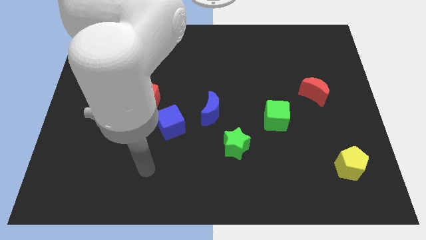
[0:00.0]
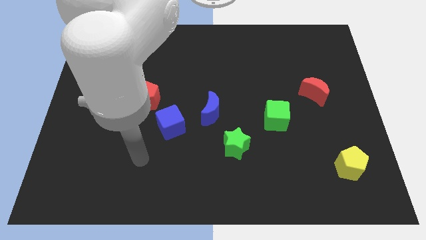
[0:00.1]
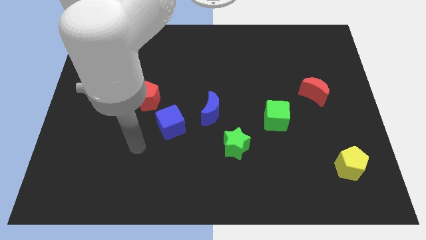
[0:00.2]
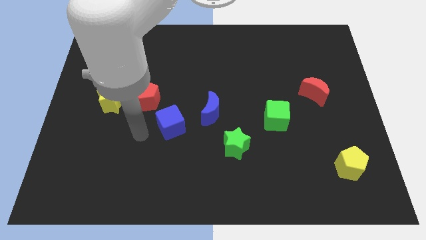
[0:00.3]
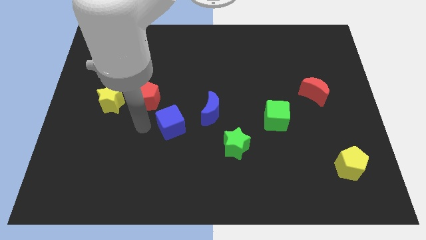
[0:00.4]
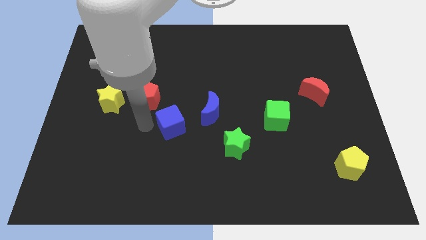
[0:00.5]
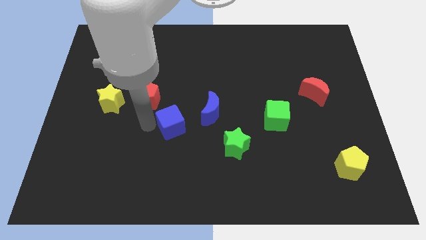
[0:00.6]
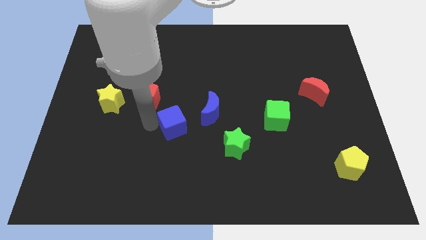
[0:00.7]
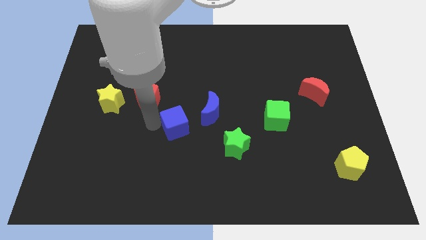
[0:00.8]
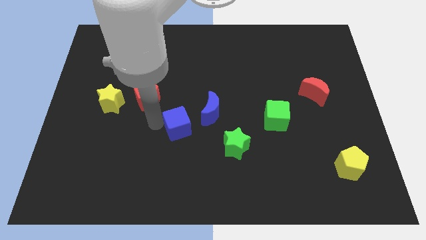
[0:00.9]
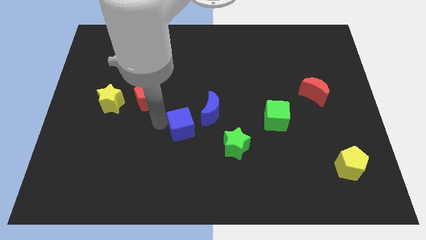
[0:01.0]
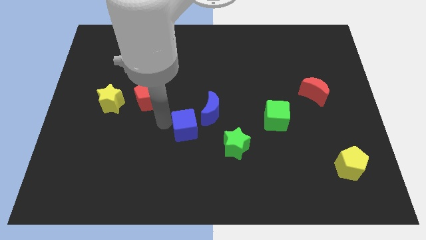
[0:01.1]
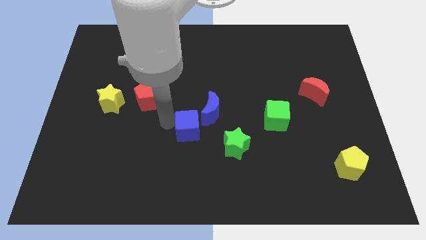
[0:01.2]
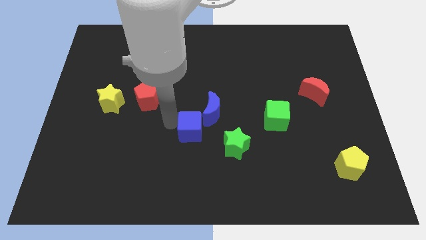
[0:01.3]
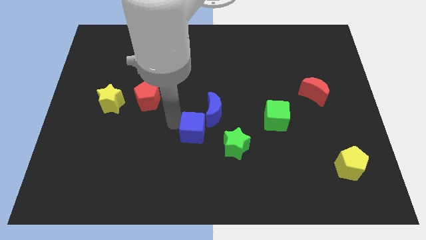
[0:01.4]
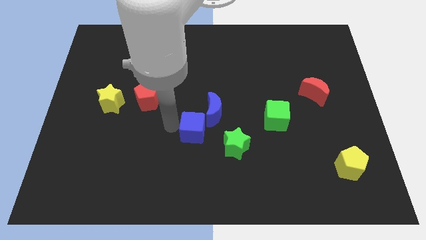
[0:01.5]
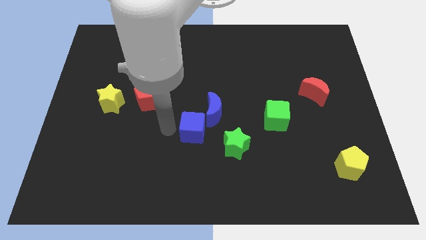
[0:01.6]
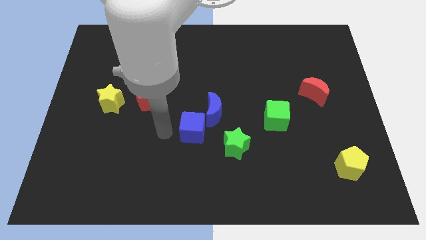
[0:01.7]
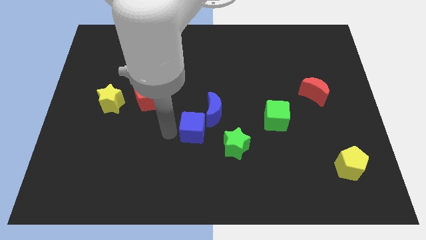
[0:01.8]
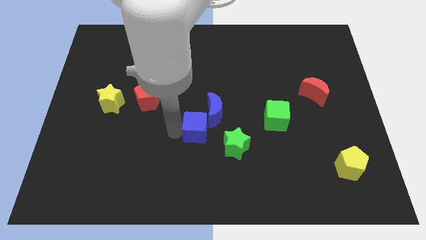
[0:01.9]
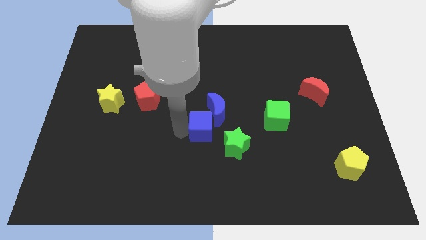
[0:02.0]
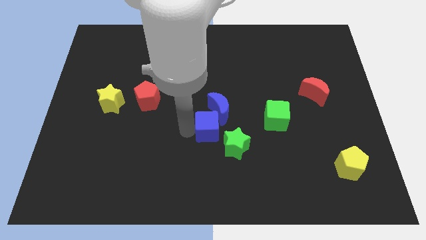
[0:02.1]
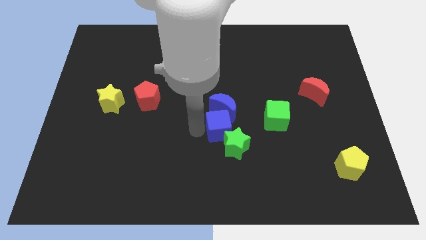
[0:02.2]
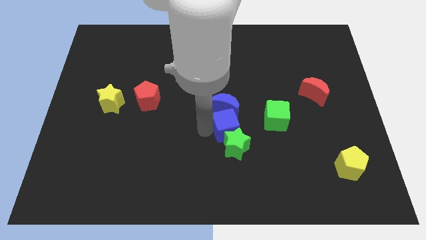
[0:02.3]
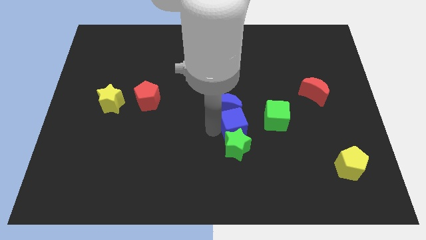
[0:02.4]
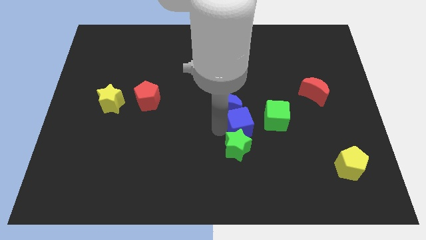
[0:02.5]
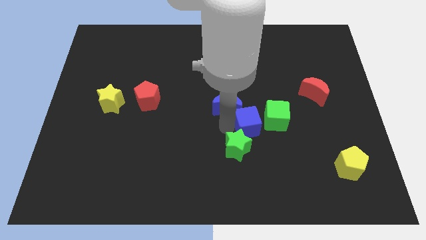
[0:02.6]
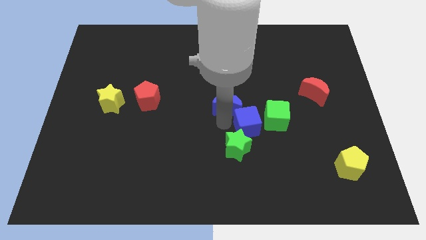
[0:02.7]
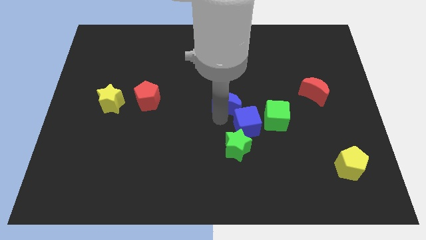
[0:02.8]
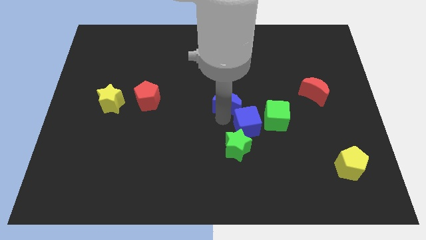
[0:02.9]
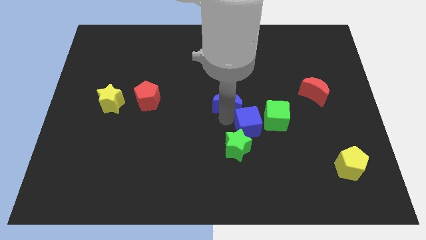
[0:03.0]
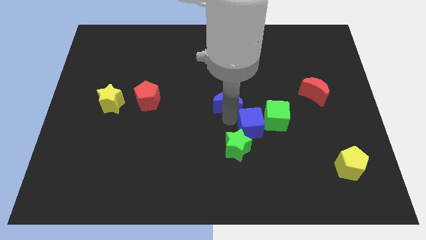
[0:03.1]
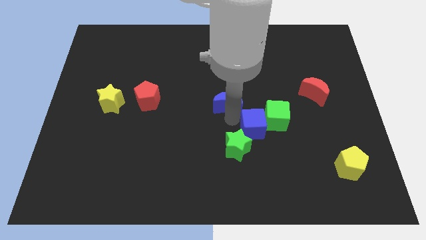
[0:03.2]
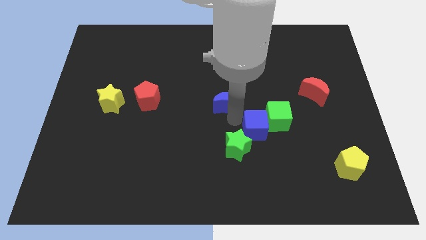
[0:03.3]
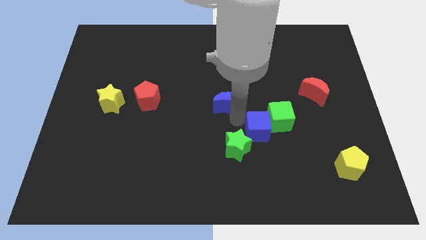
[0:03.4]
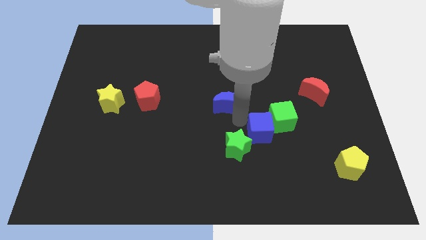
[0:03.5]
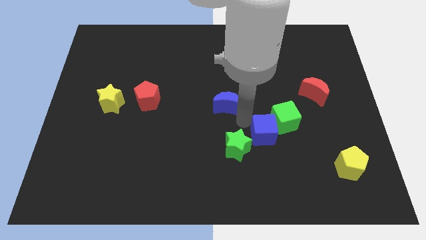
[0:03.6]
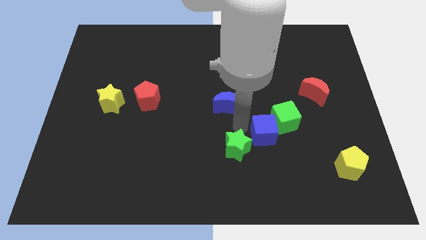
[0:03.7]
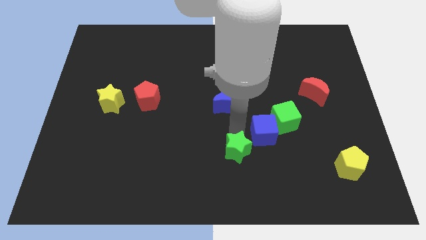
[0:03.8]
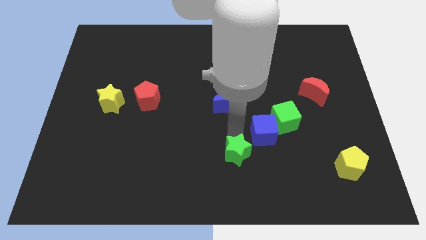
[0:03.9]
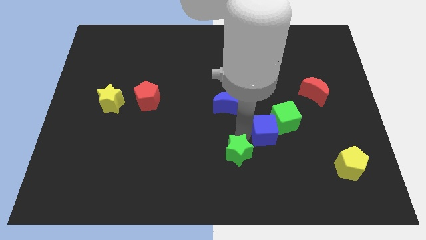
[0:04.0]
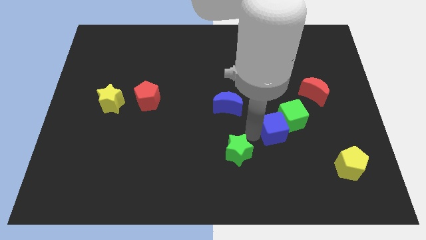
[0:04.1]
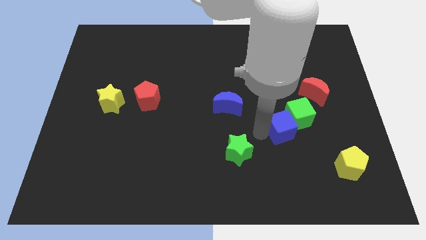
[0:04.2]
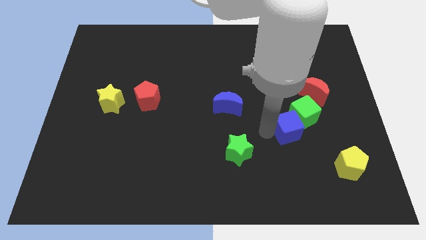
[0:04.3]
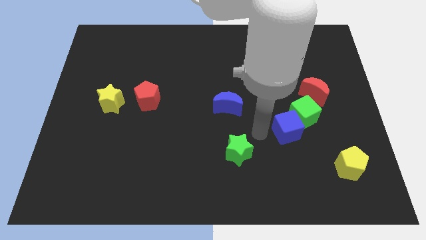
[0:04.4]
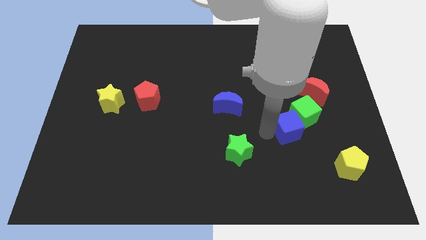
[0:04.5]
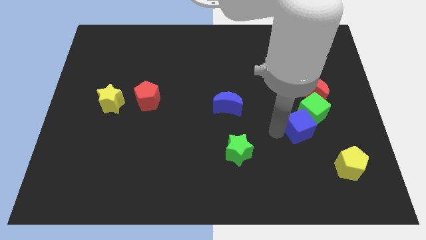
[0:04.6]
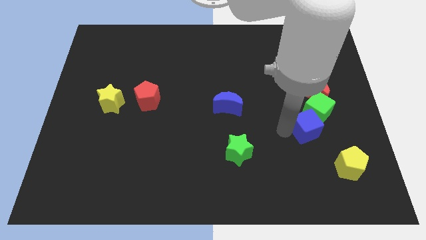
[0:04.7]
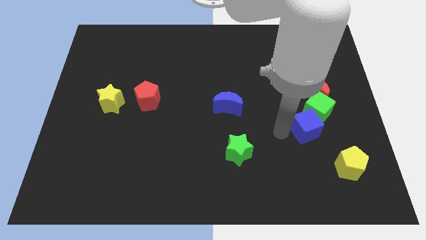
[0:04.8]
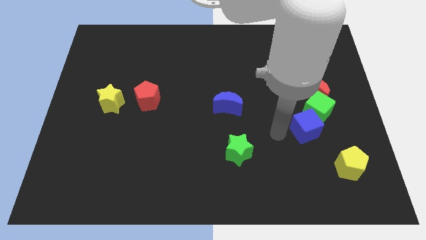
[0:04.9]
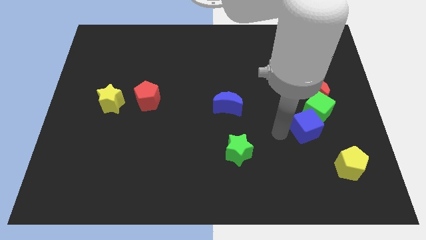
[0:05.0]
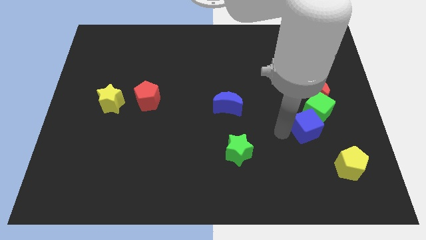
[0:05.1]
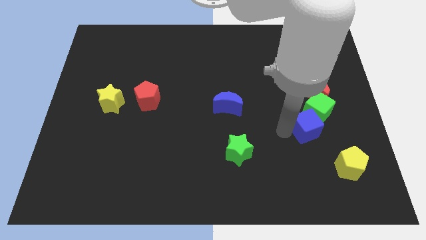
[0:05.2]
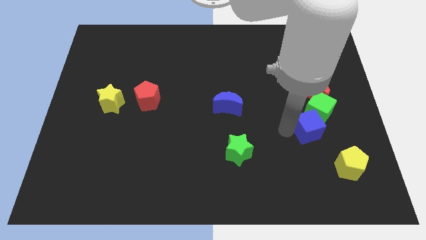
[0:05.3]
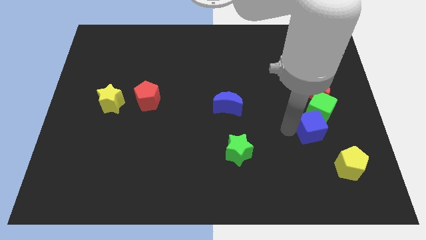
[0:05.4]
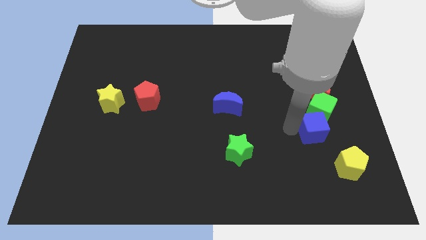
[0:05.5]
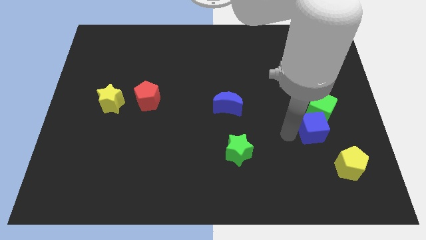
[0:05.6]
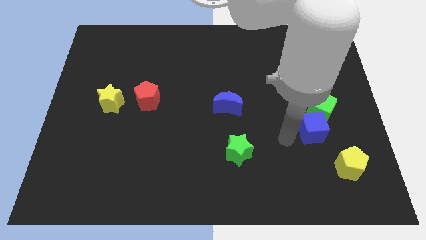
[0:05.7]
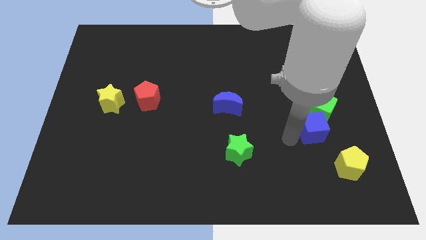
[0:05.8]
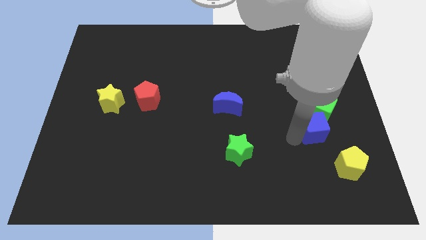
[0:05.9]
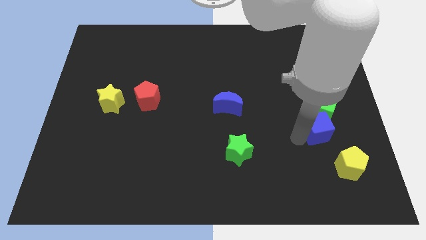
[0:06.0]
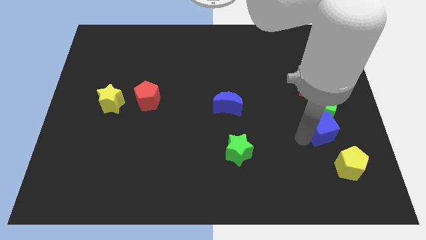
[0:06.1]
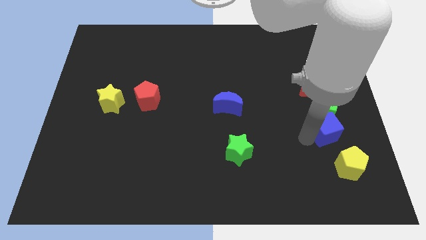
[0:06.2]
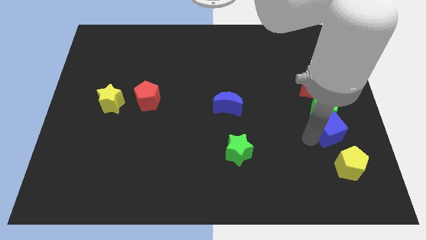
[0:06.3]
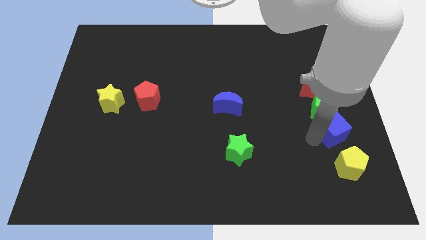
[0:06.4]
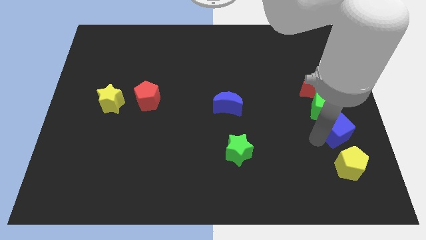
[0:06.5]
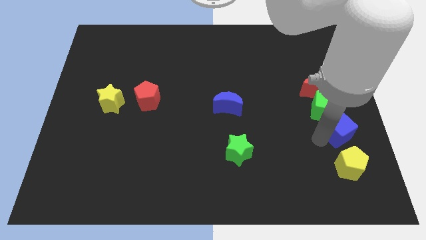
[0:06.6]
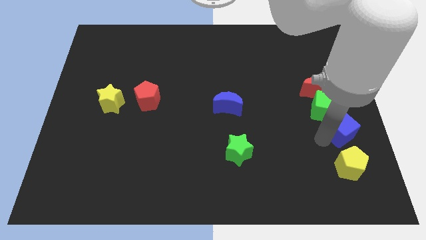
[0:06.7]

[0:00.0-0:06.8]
slide the blue cube to the center right
